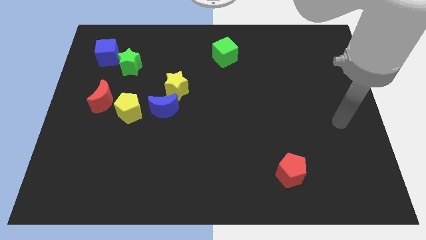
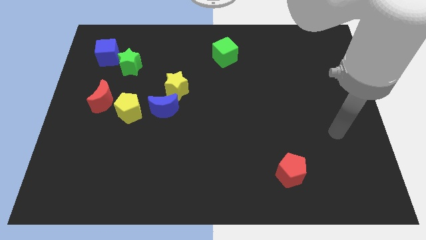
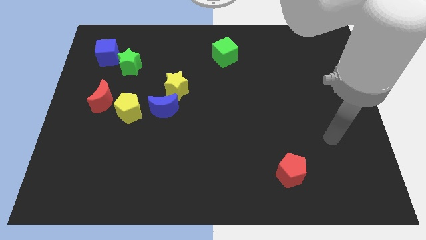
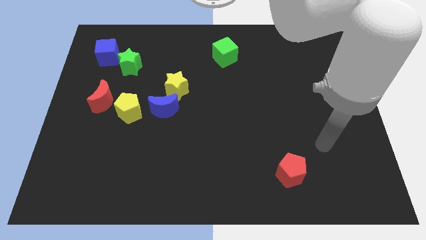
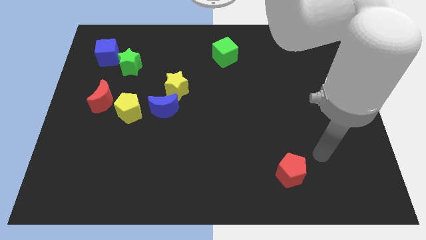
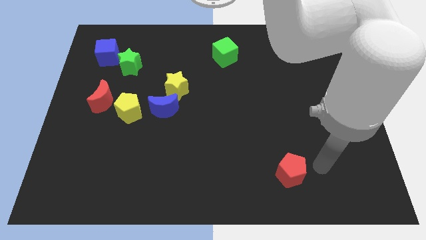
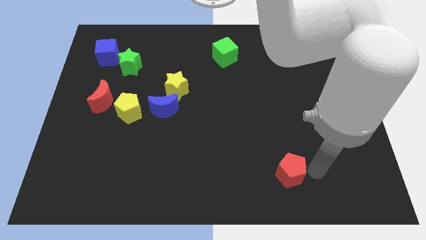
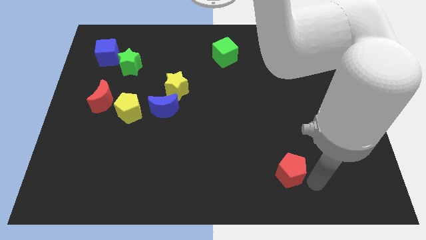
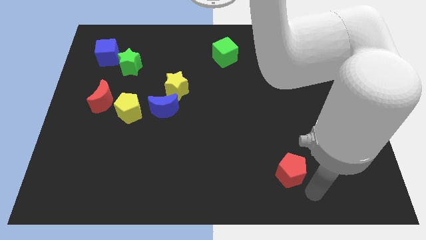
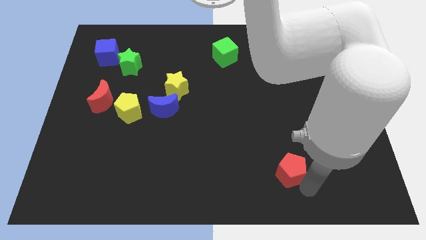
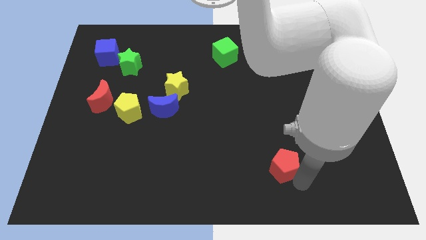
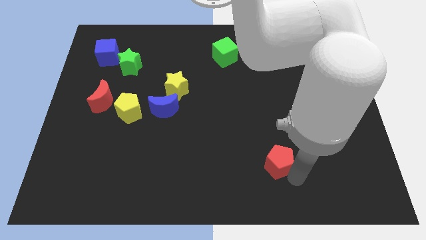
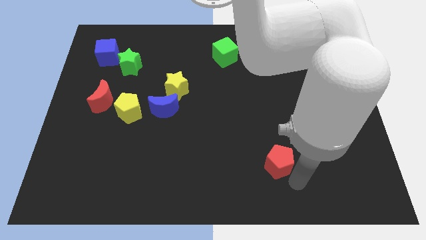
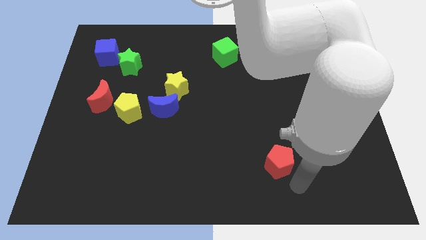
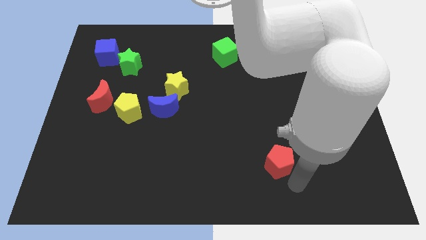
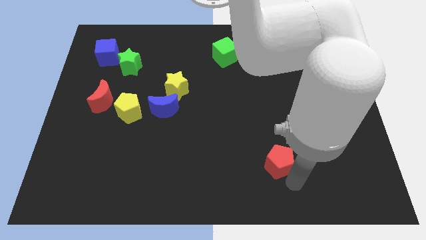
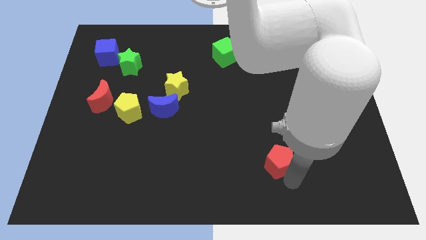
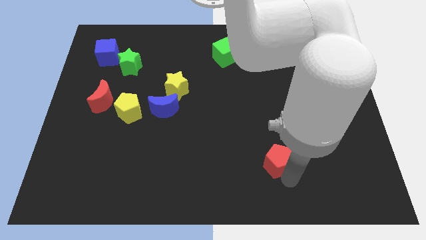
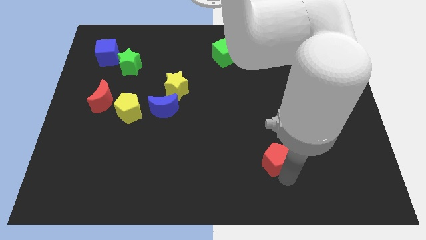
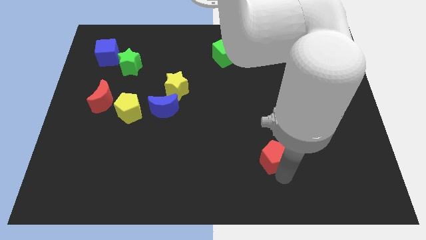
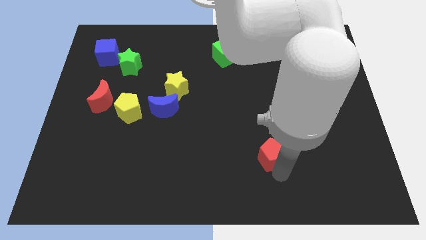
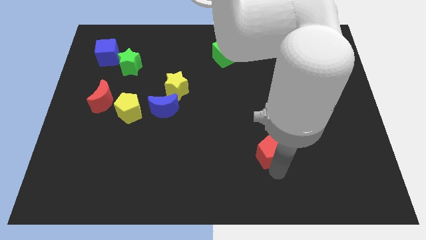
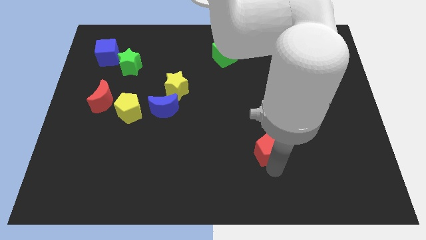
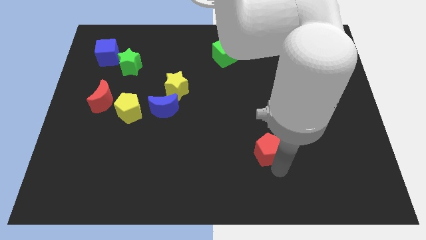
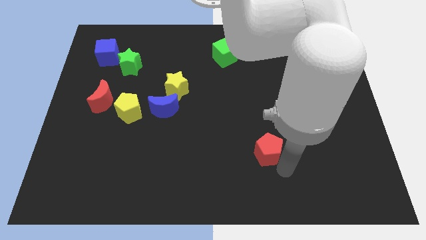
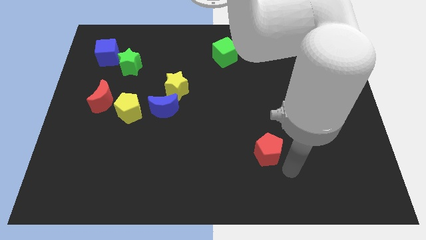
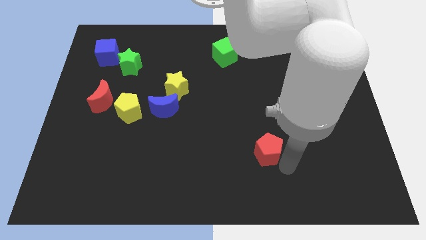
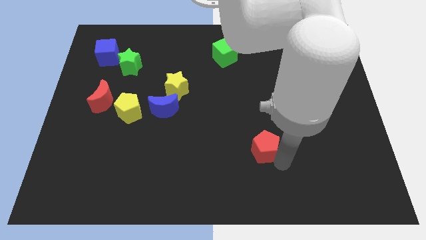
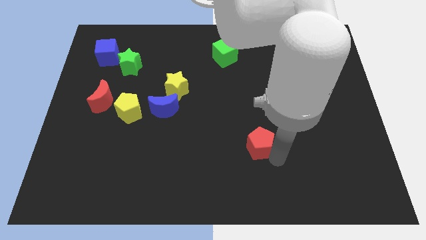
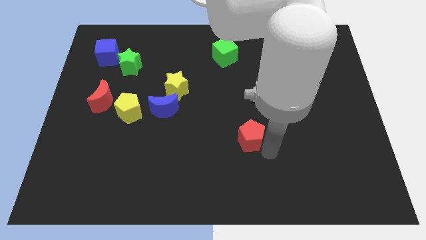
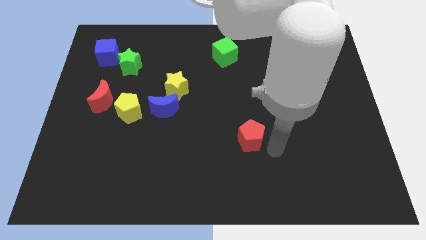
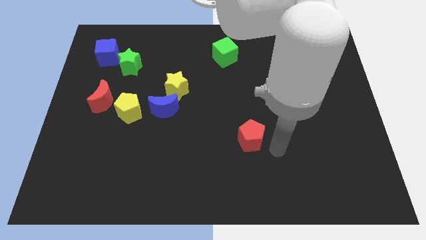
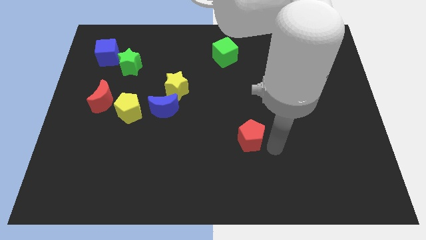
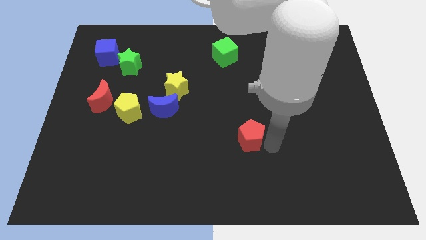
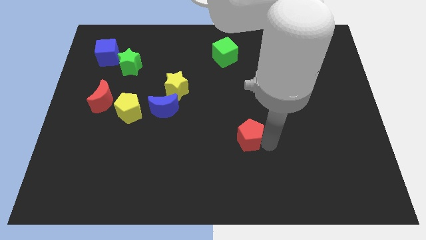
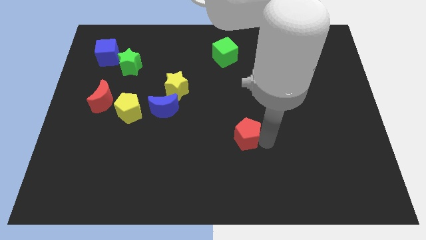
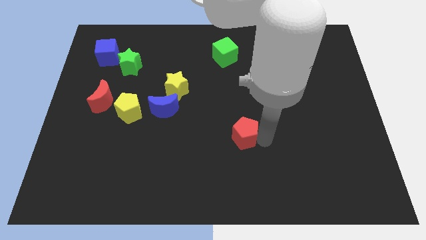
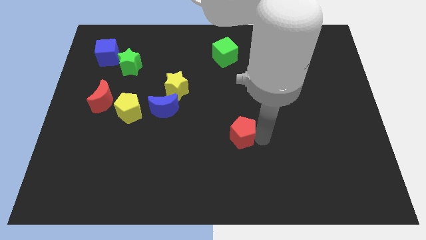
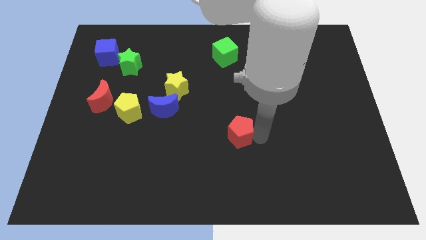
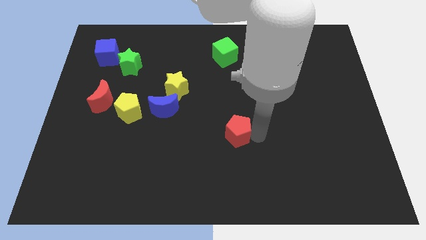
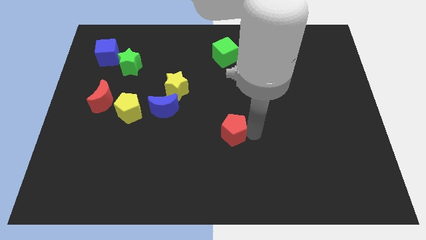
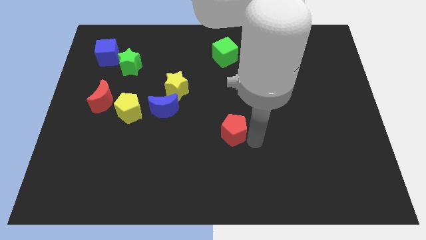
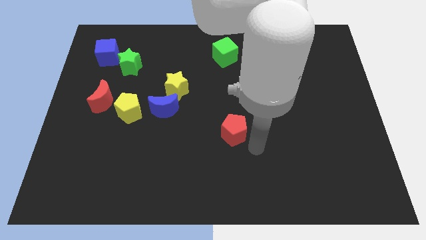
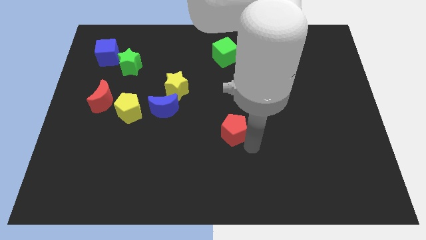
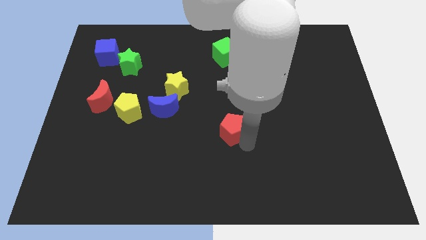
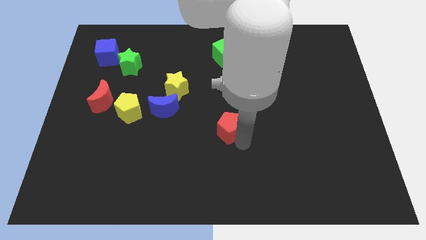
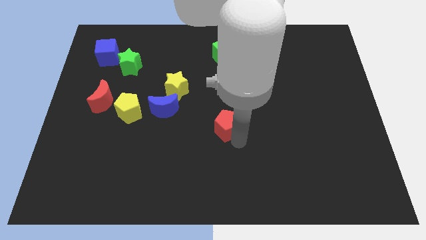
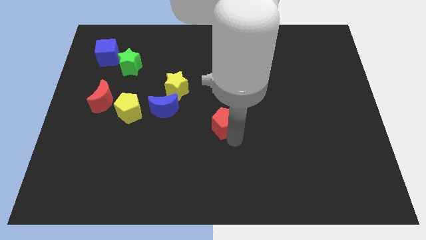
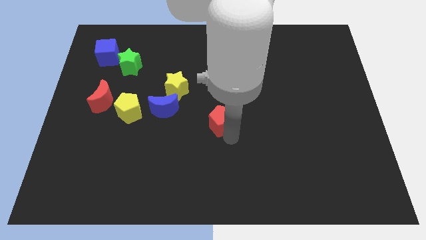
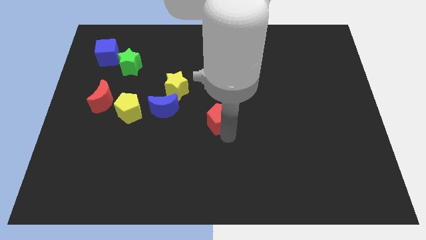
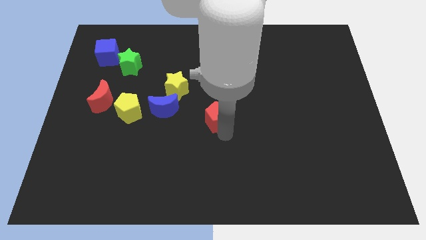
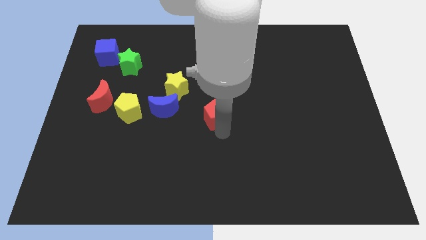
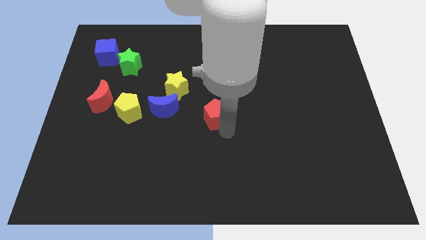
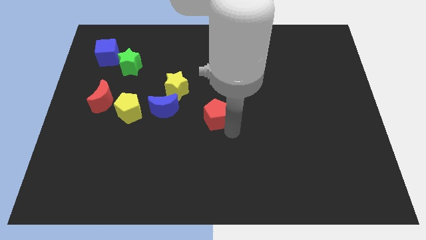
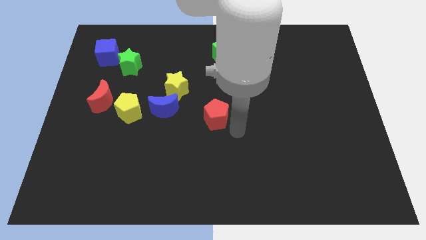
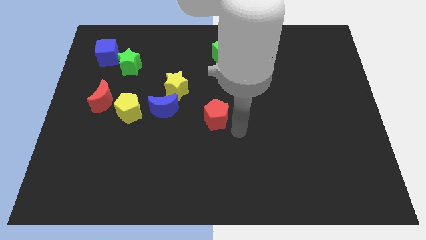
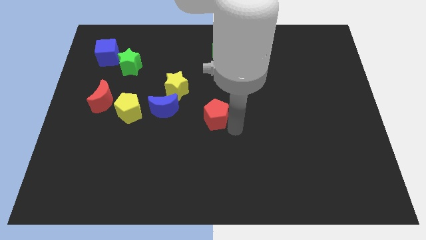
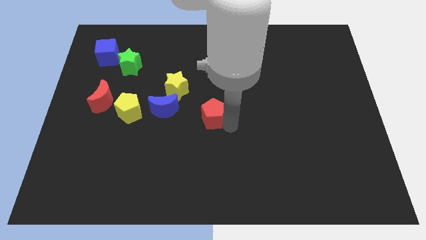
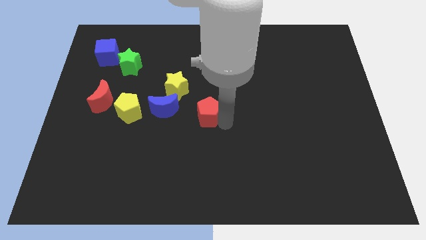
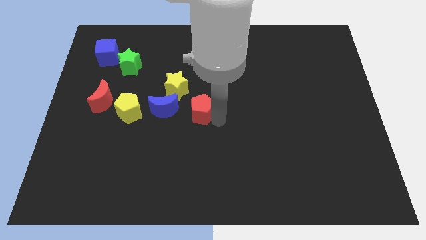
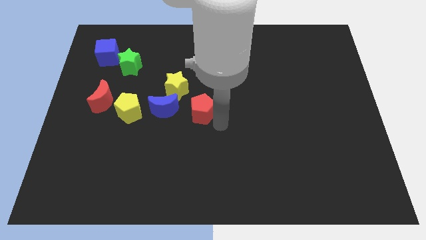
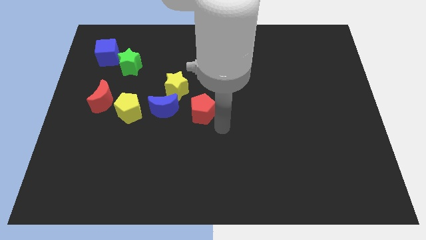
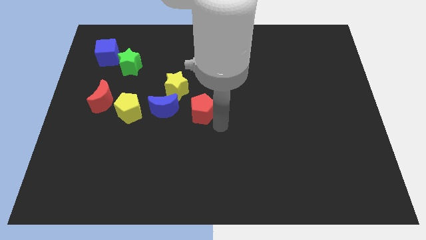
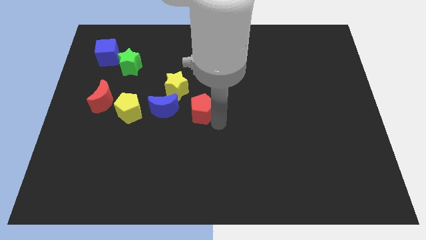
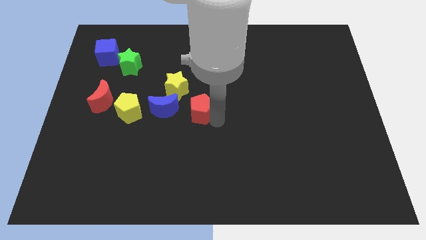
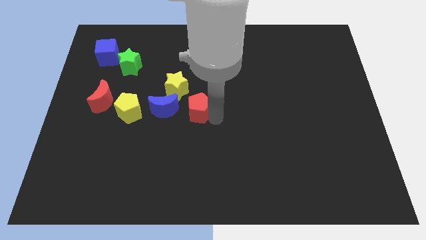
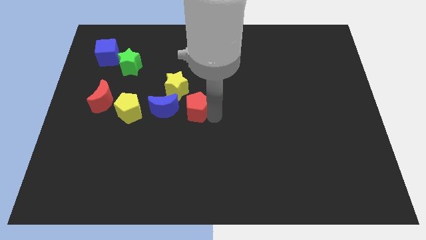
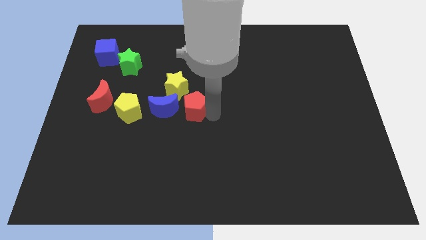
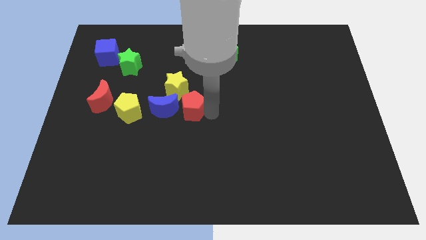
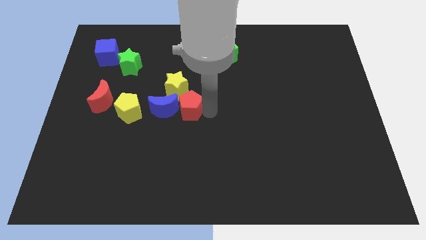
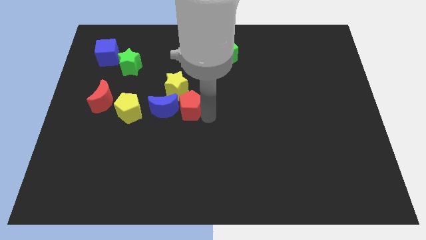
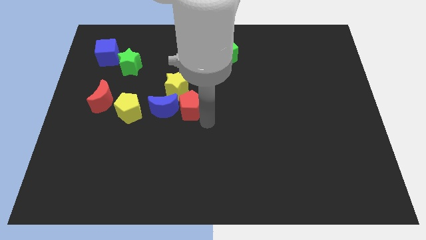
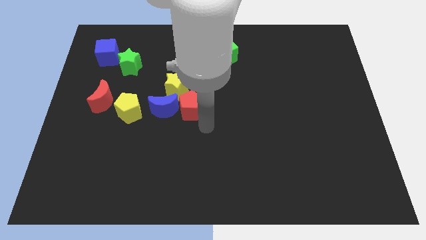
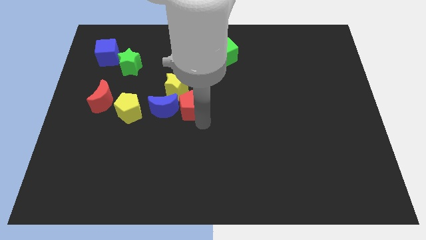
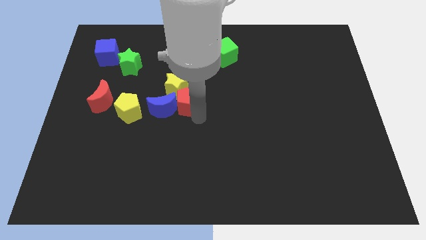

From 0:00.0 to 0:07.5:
move the red pentagon close to the yellow star
